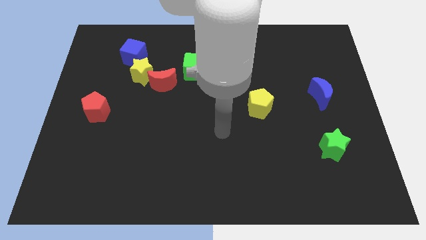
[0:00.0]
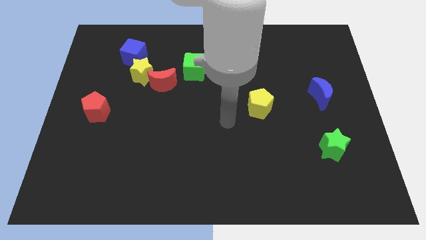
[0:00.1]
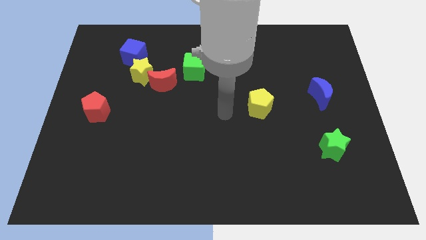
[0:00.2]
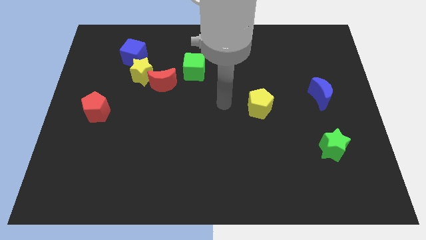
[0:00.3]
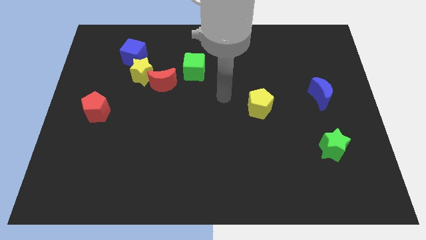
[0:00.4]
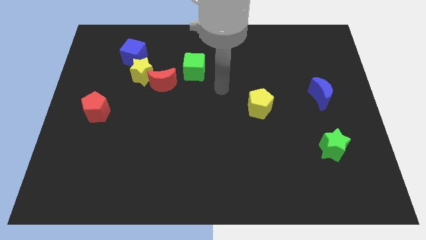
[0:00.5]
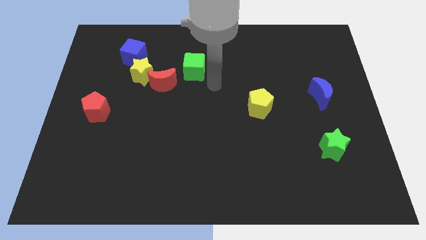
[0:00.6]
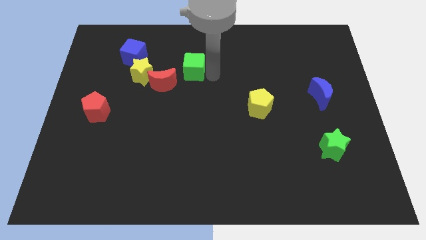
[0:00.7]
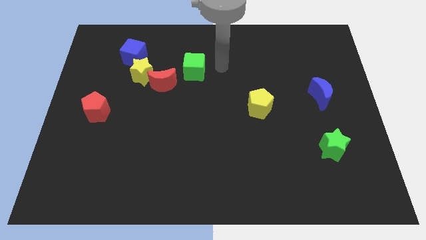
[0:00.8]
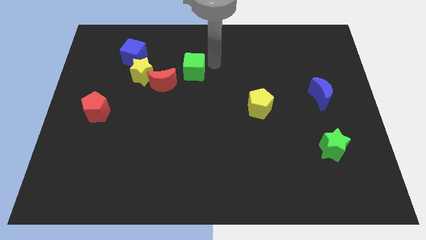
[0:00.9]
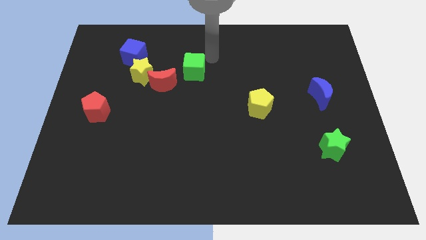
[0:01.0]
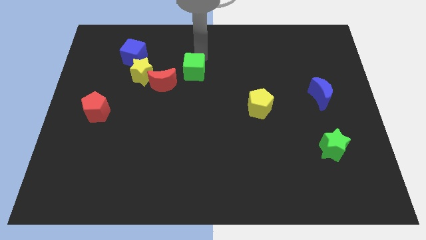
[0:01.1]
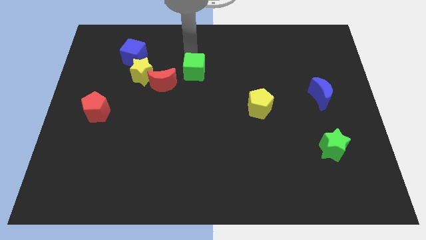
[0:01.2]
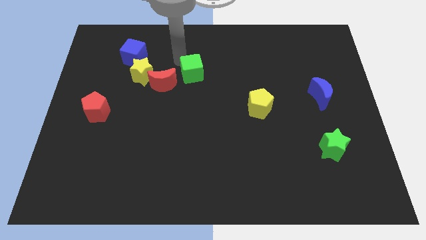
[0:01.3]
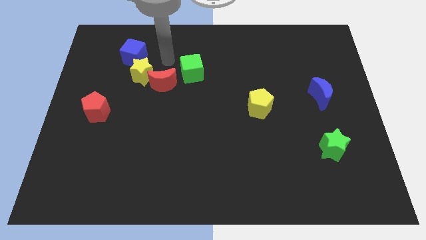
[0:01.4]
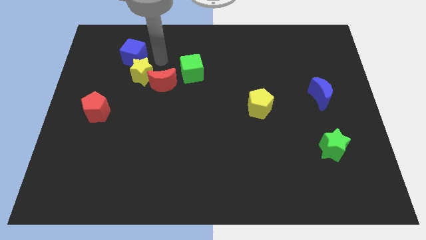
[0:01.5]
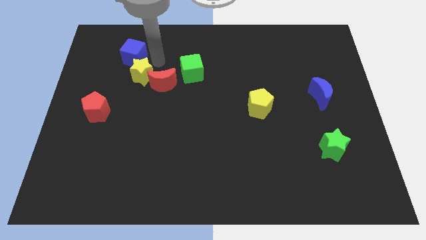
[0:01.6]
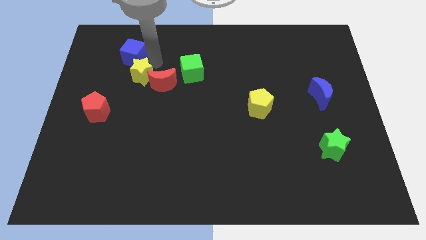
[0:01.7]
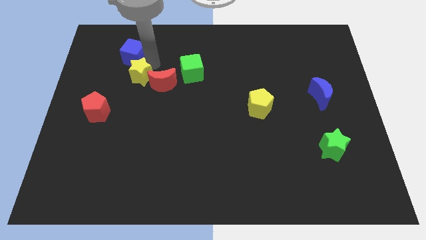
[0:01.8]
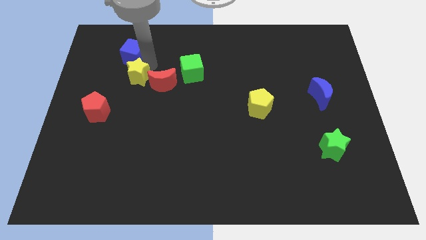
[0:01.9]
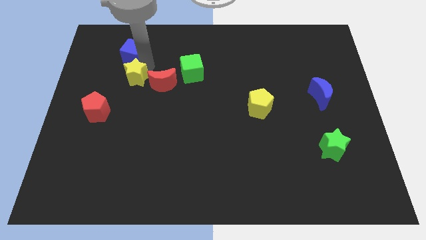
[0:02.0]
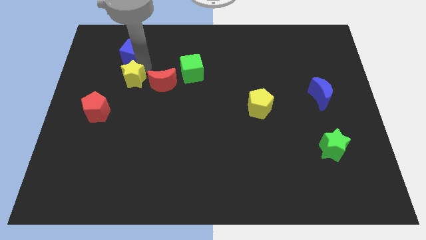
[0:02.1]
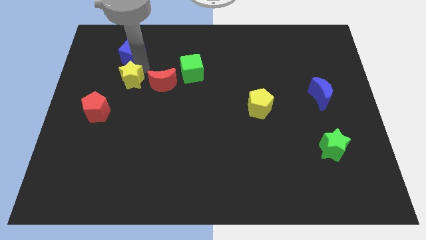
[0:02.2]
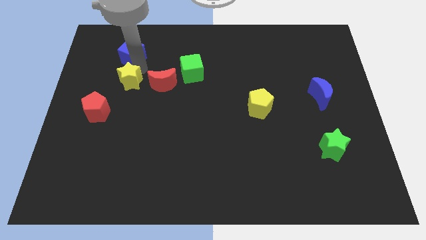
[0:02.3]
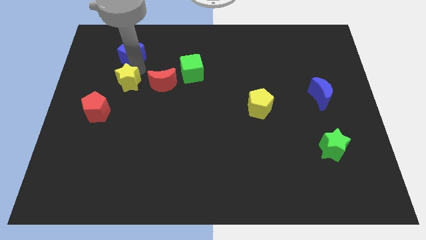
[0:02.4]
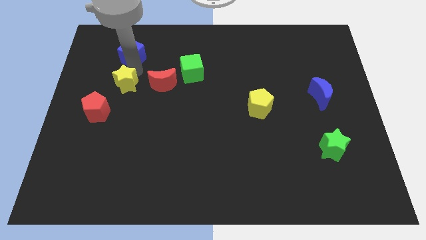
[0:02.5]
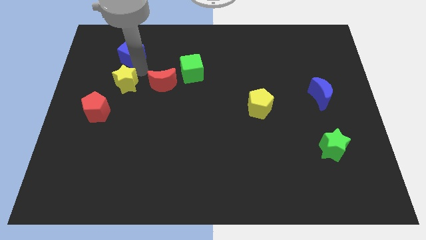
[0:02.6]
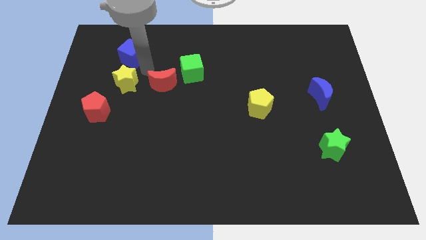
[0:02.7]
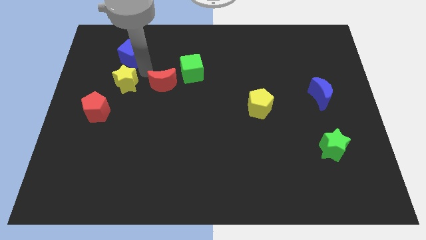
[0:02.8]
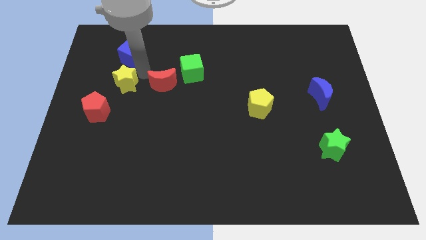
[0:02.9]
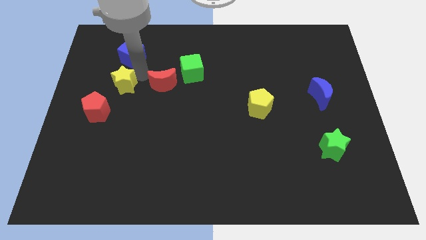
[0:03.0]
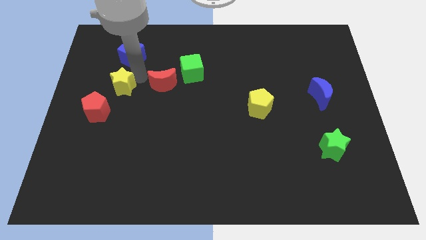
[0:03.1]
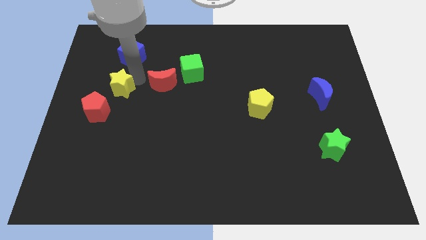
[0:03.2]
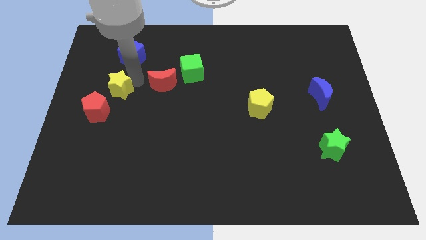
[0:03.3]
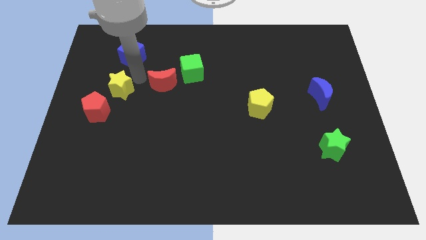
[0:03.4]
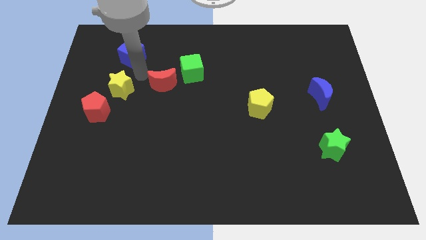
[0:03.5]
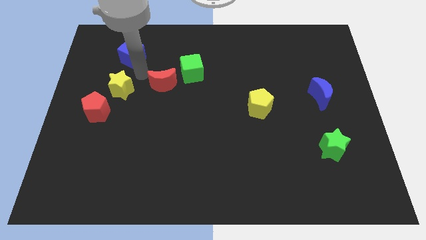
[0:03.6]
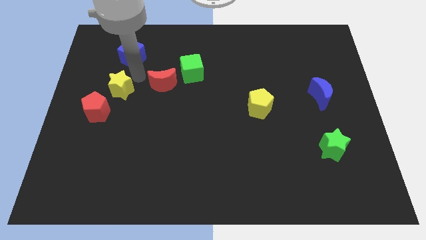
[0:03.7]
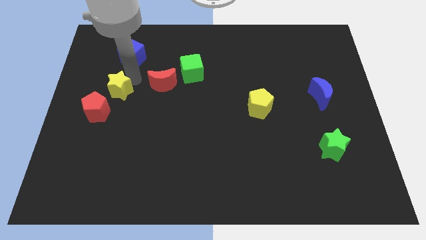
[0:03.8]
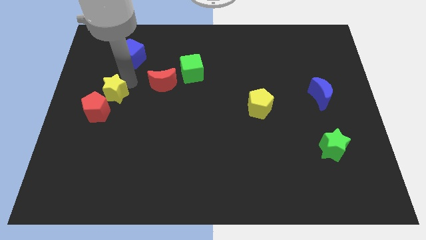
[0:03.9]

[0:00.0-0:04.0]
separate the yellow star from the red moon and blue cube

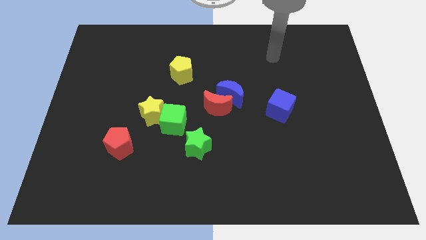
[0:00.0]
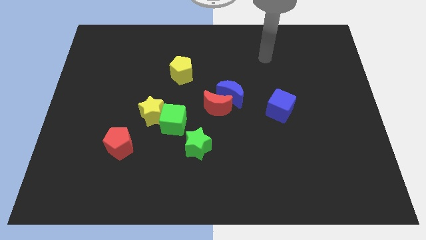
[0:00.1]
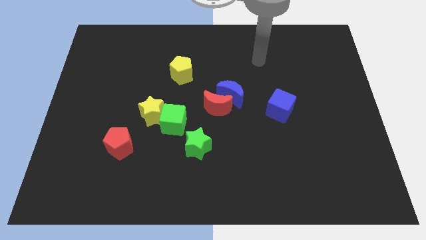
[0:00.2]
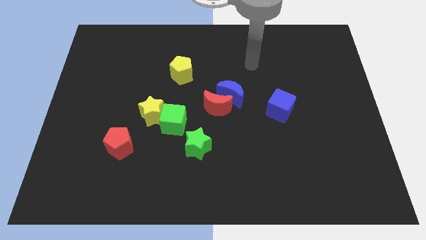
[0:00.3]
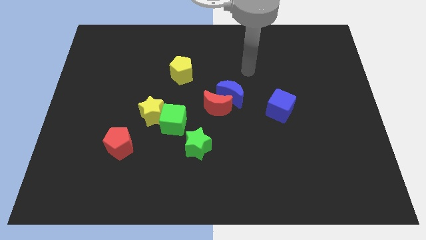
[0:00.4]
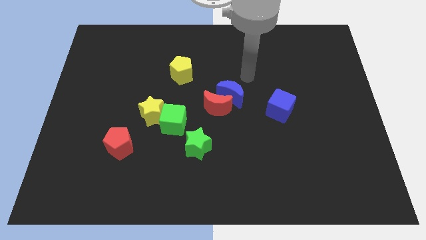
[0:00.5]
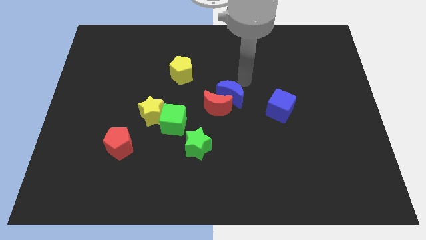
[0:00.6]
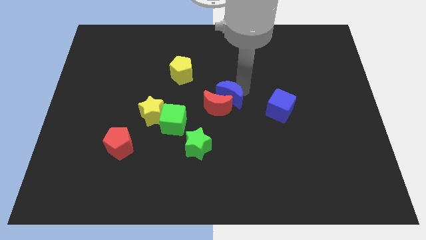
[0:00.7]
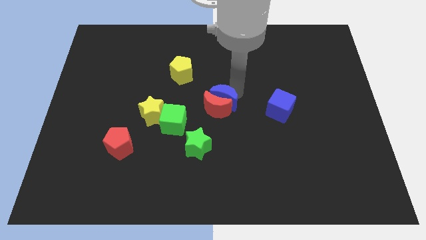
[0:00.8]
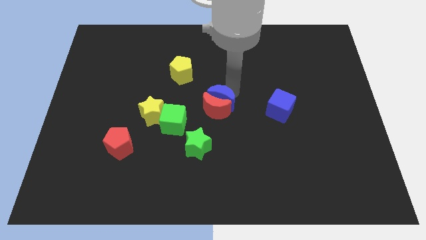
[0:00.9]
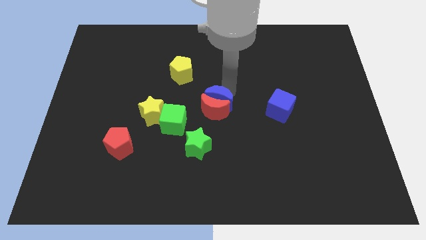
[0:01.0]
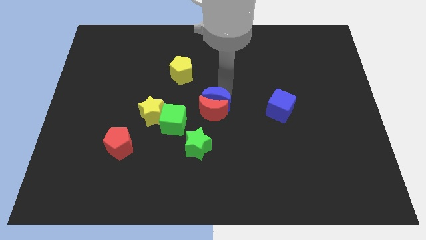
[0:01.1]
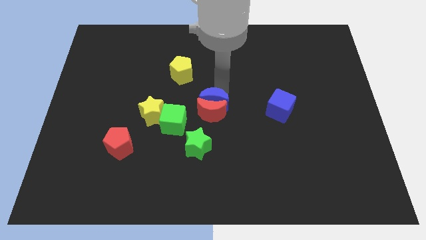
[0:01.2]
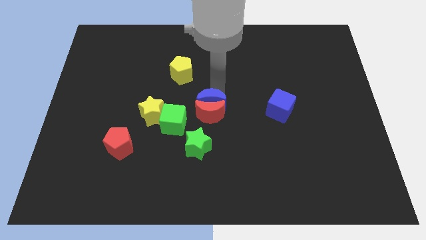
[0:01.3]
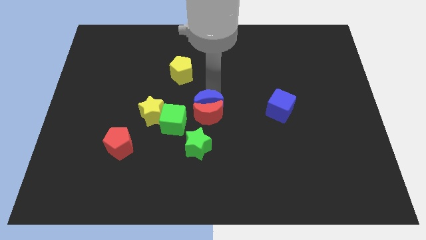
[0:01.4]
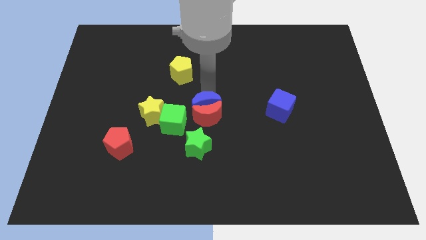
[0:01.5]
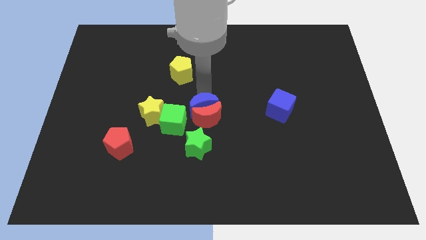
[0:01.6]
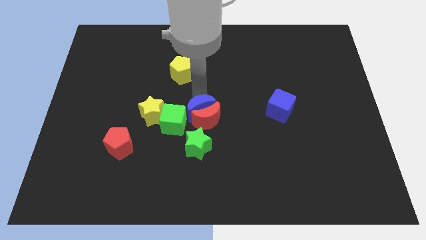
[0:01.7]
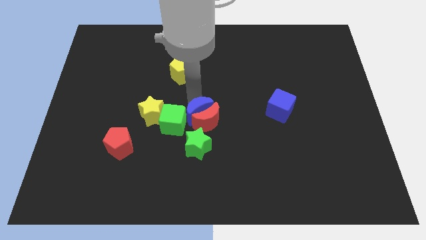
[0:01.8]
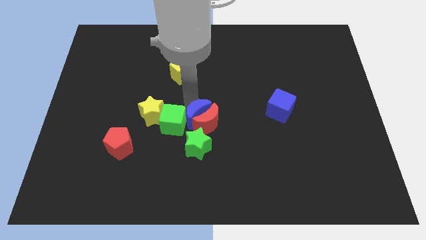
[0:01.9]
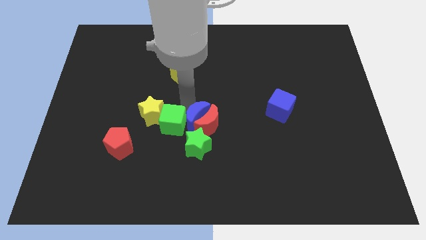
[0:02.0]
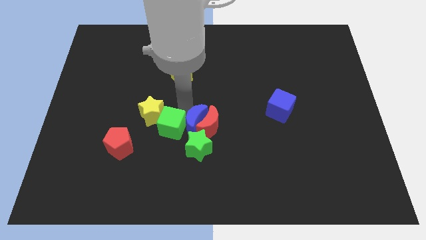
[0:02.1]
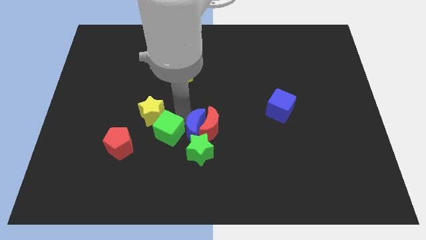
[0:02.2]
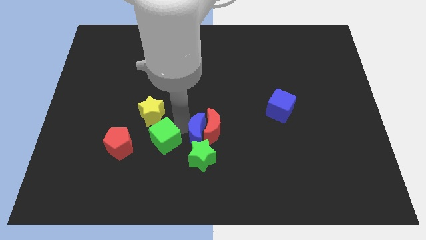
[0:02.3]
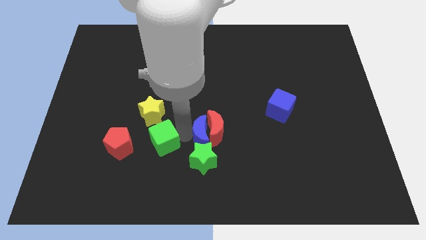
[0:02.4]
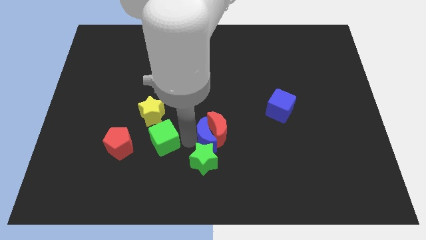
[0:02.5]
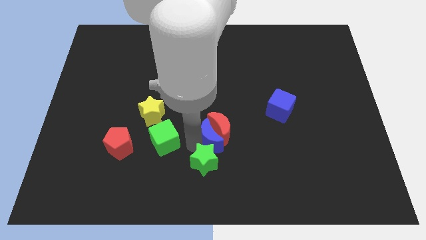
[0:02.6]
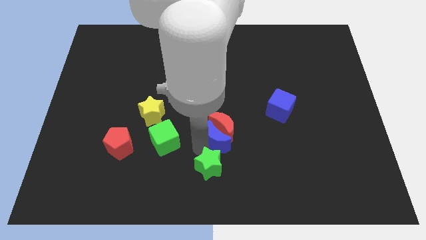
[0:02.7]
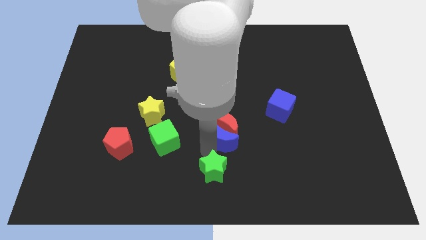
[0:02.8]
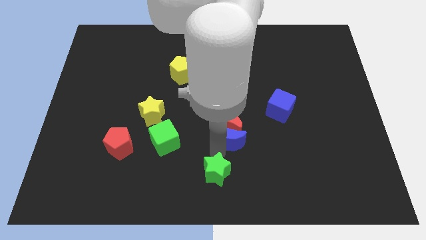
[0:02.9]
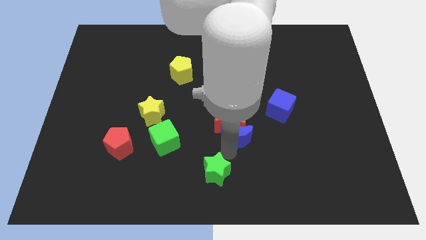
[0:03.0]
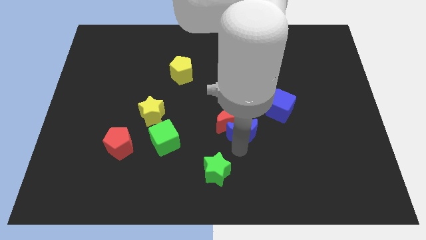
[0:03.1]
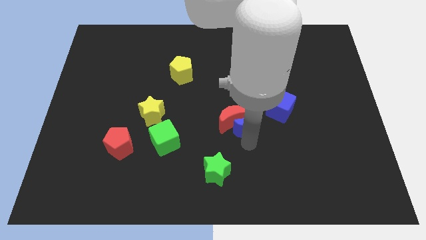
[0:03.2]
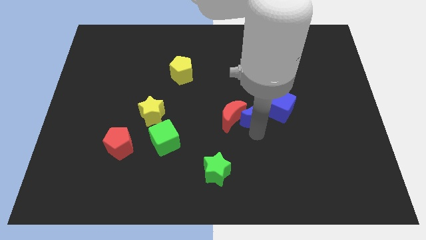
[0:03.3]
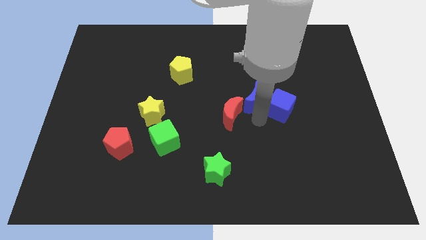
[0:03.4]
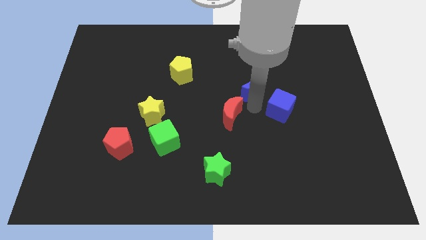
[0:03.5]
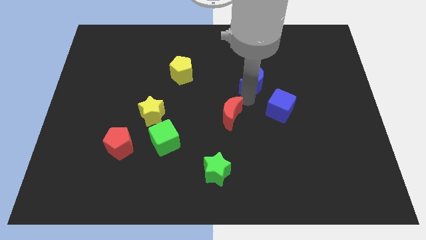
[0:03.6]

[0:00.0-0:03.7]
pull the red moon apart from the blue moon

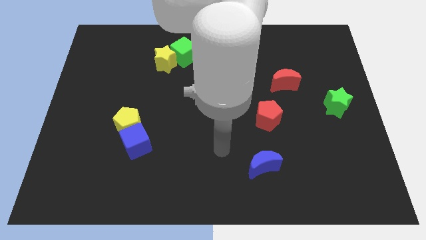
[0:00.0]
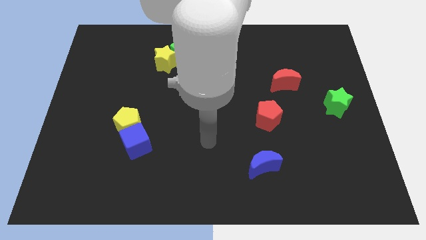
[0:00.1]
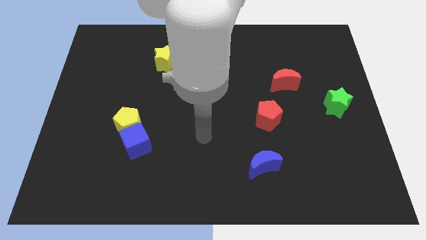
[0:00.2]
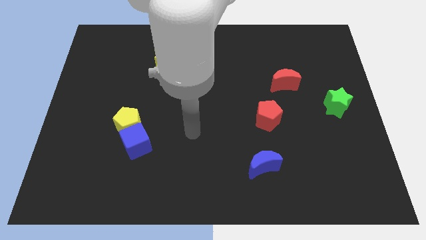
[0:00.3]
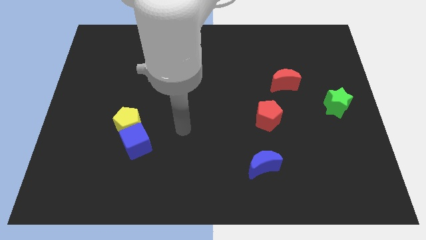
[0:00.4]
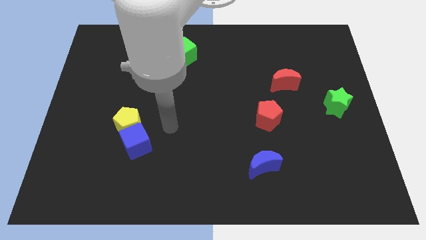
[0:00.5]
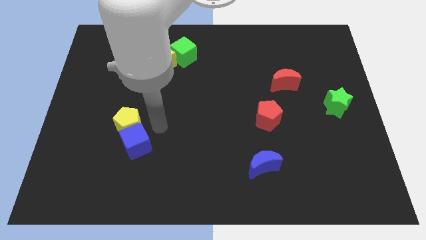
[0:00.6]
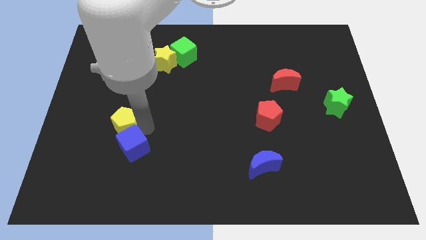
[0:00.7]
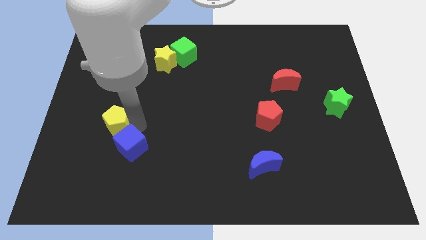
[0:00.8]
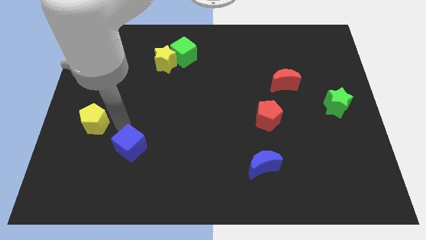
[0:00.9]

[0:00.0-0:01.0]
move the blue cube away from the yellow pentagon

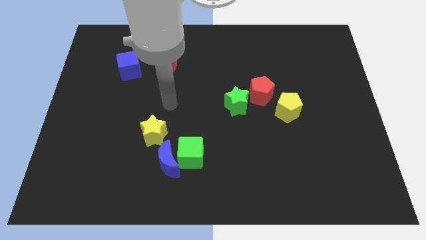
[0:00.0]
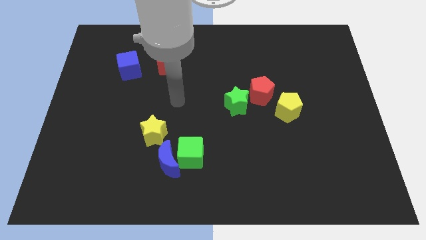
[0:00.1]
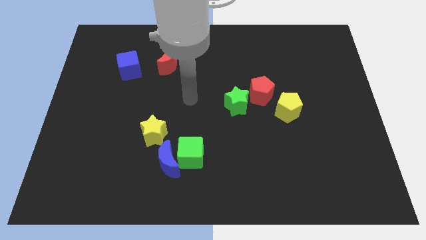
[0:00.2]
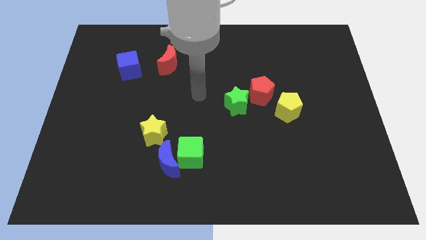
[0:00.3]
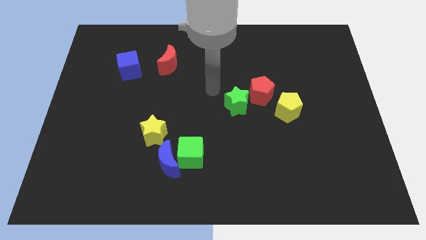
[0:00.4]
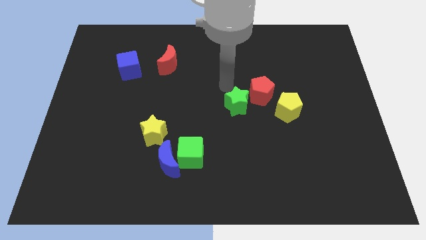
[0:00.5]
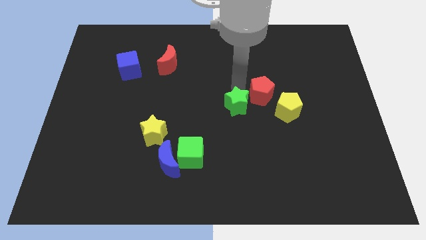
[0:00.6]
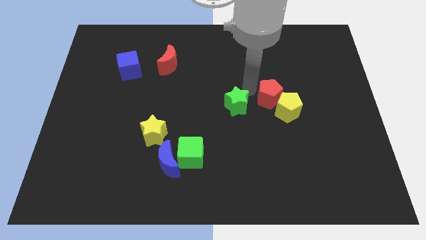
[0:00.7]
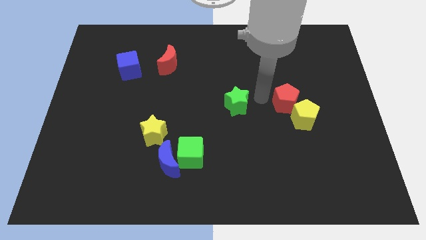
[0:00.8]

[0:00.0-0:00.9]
move the green star away from the red pentagon
